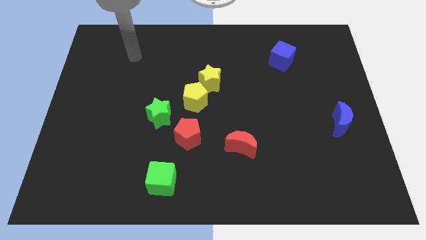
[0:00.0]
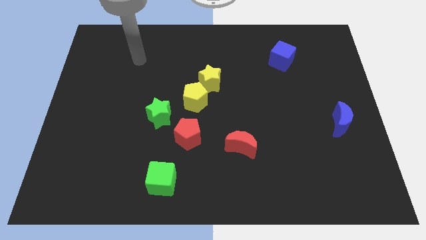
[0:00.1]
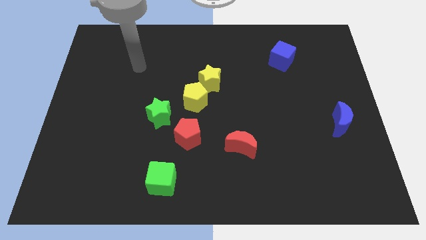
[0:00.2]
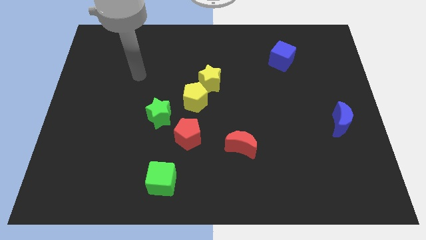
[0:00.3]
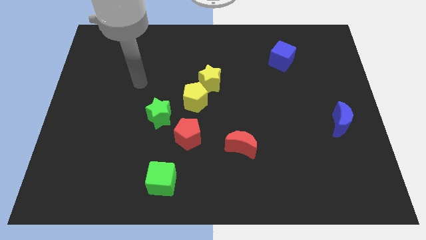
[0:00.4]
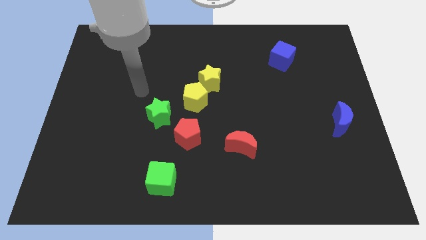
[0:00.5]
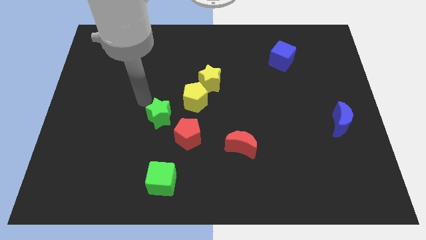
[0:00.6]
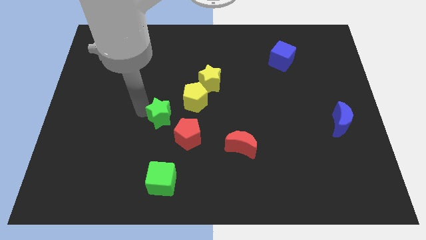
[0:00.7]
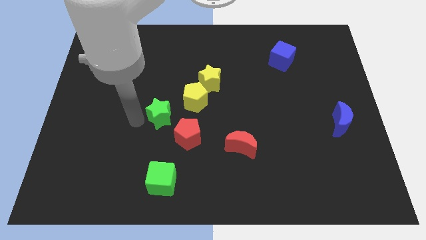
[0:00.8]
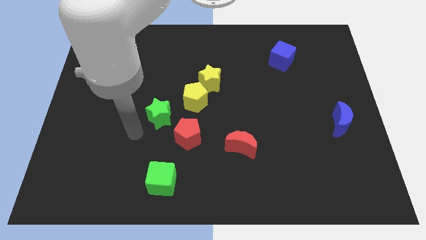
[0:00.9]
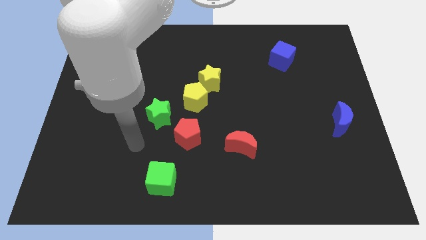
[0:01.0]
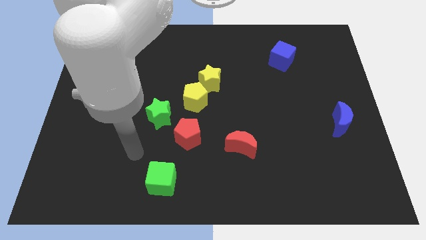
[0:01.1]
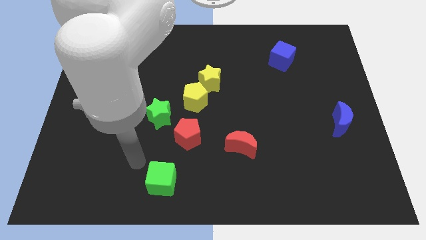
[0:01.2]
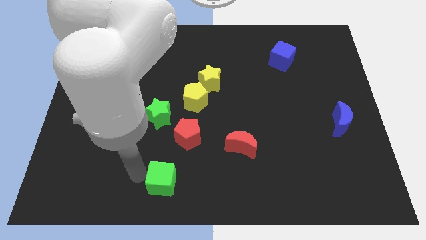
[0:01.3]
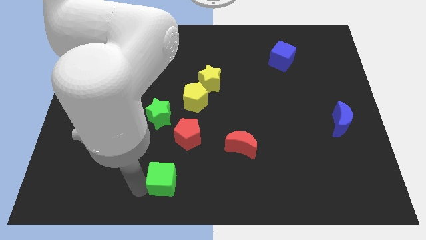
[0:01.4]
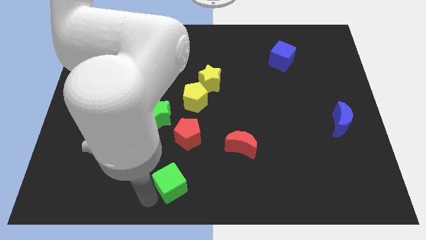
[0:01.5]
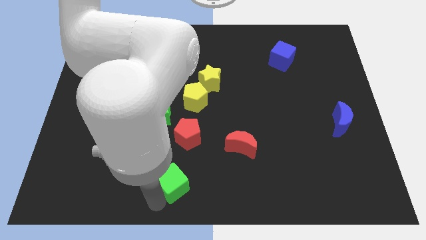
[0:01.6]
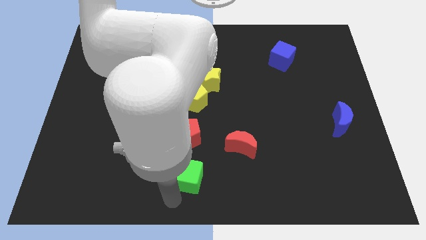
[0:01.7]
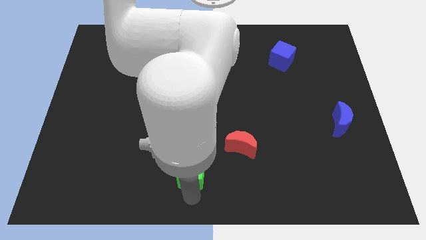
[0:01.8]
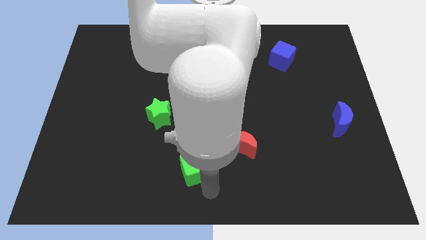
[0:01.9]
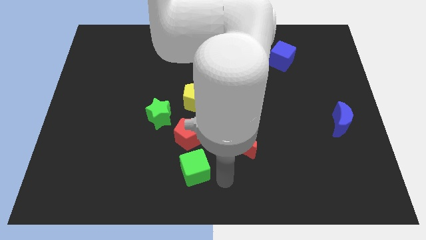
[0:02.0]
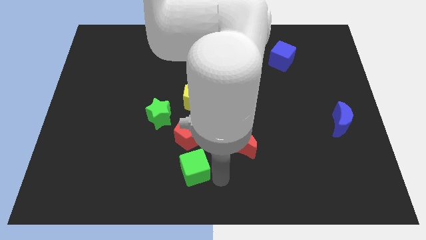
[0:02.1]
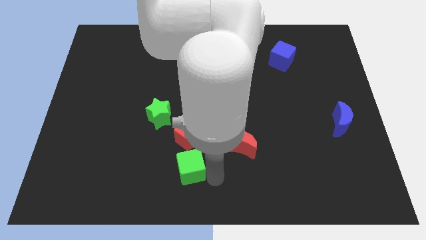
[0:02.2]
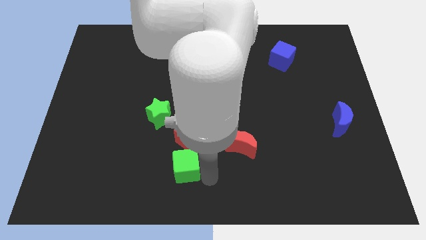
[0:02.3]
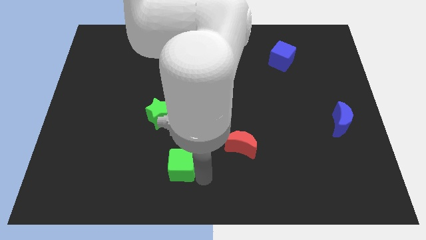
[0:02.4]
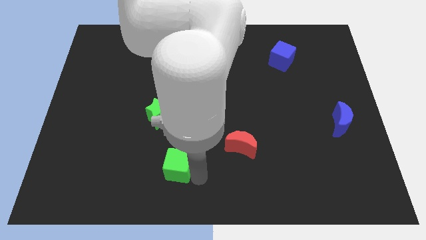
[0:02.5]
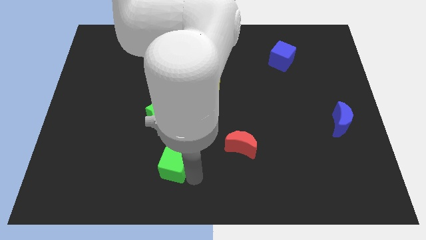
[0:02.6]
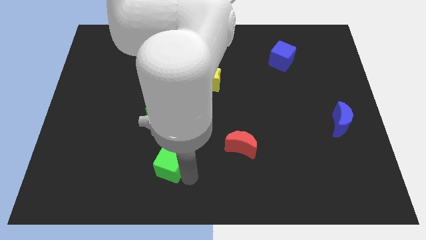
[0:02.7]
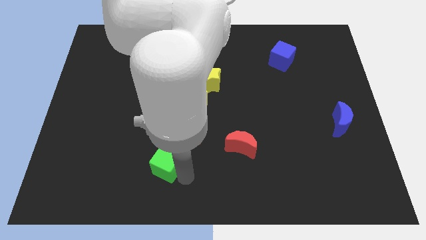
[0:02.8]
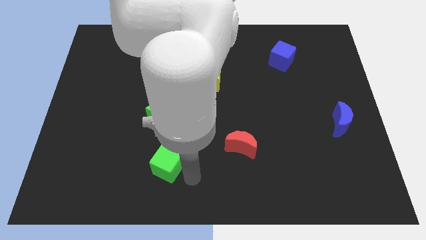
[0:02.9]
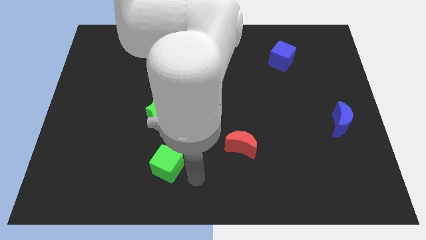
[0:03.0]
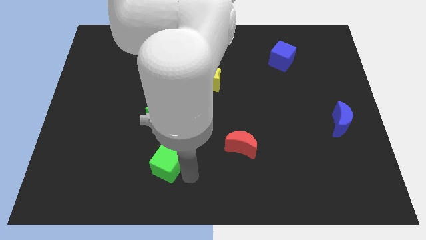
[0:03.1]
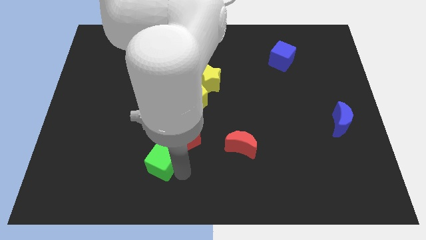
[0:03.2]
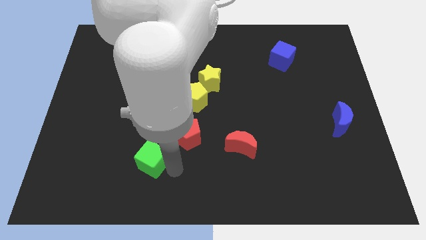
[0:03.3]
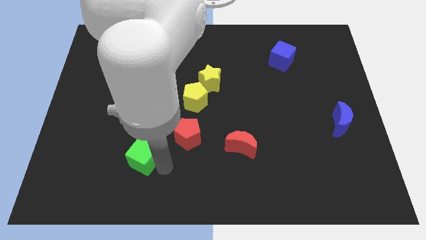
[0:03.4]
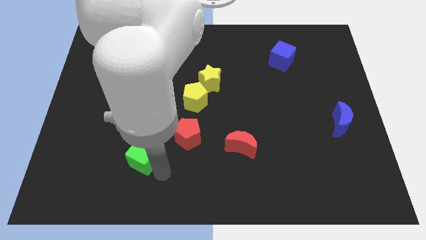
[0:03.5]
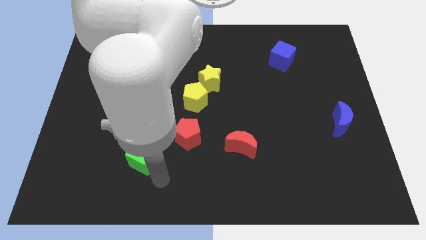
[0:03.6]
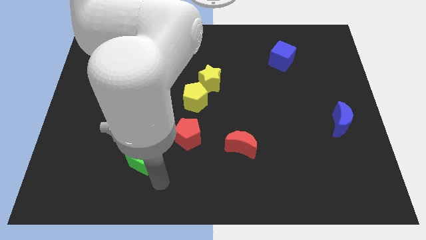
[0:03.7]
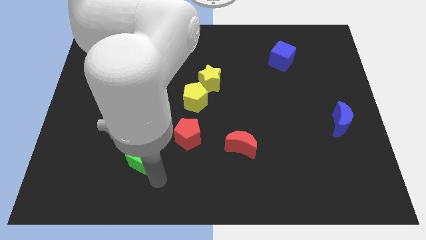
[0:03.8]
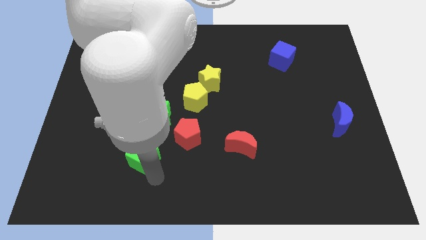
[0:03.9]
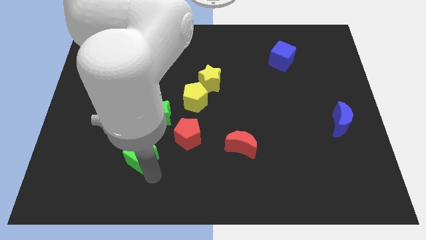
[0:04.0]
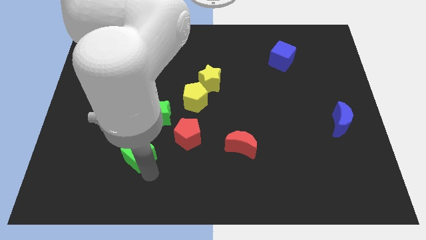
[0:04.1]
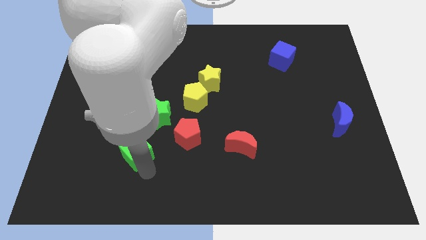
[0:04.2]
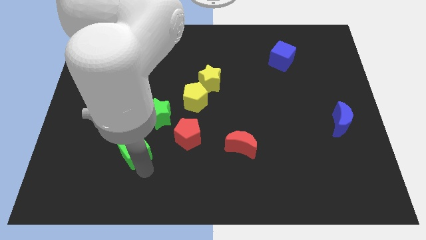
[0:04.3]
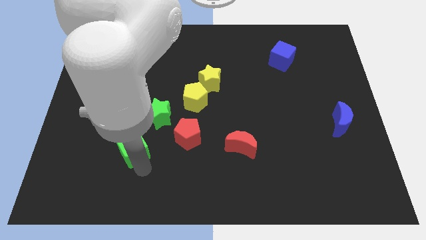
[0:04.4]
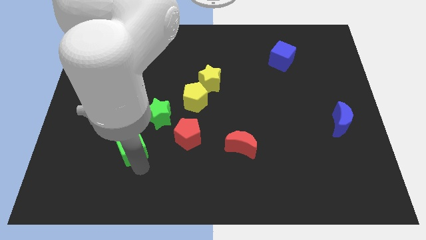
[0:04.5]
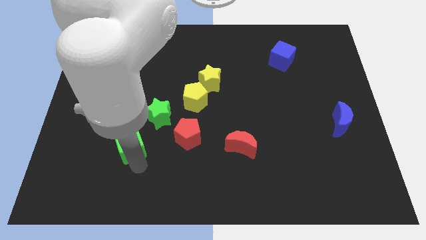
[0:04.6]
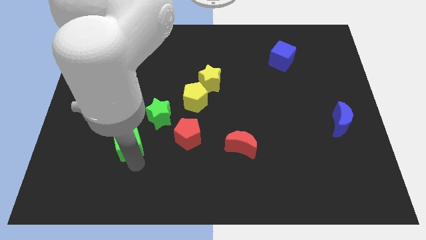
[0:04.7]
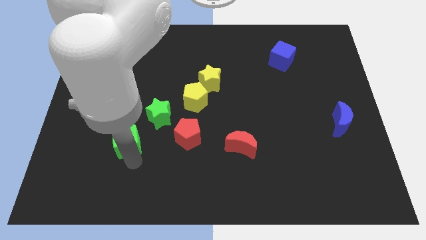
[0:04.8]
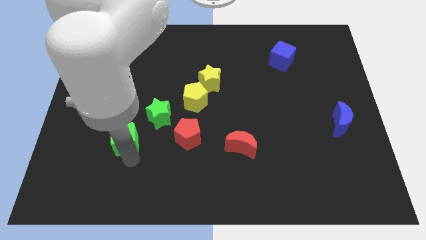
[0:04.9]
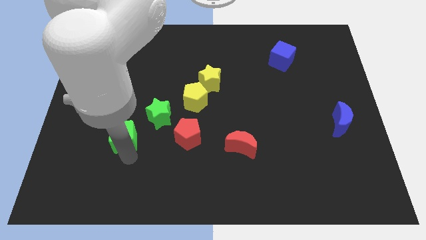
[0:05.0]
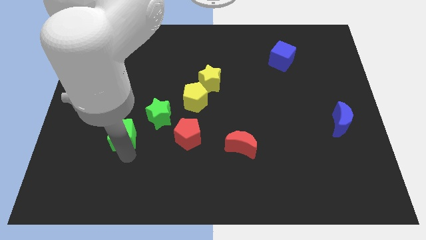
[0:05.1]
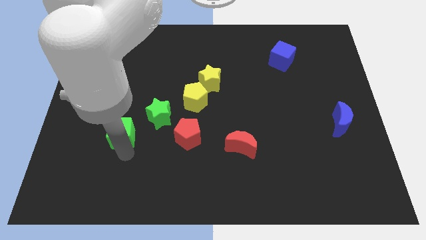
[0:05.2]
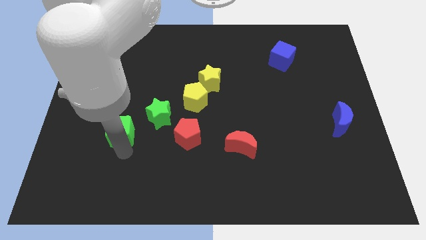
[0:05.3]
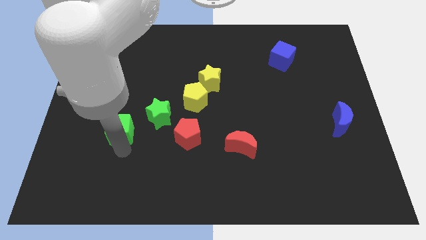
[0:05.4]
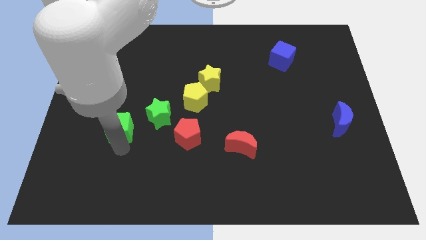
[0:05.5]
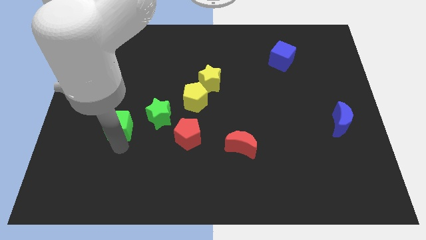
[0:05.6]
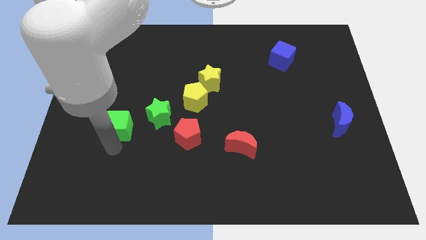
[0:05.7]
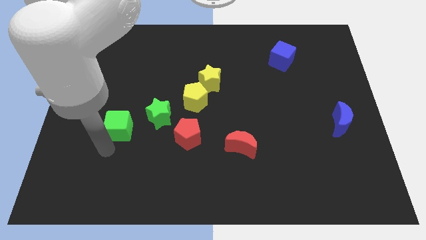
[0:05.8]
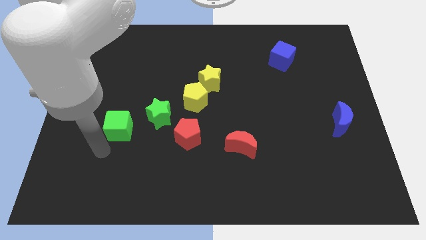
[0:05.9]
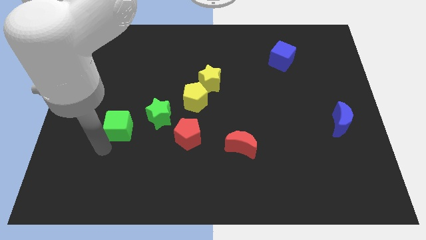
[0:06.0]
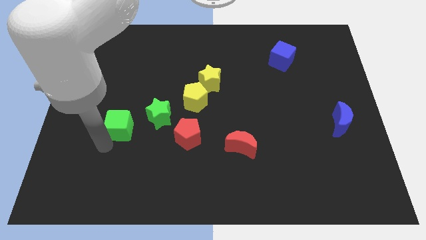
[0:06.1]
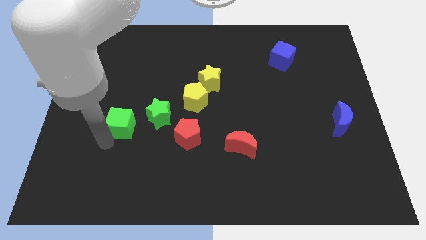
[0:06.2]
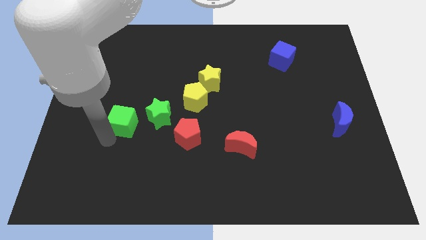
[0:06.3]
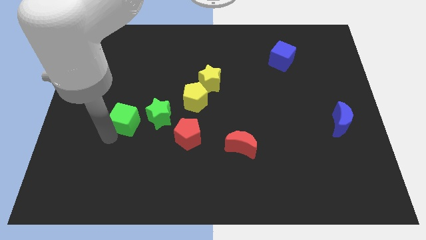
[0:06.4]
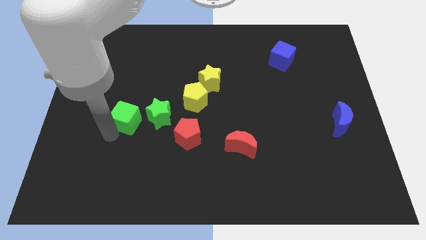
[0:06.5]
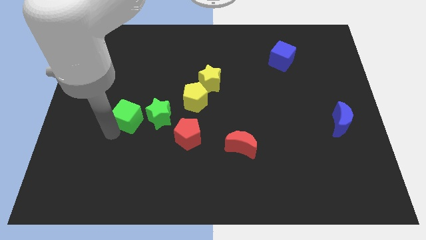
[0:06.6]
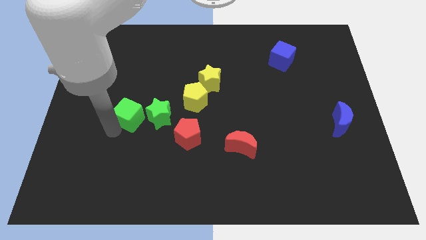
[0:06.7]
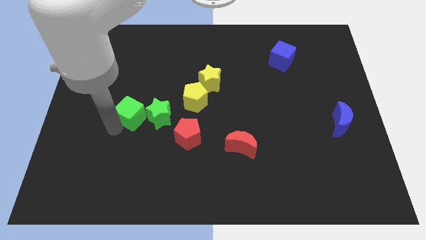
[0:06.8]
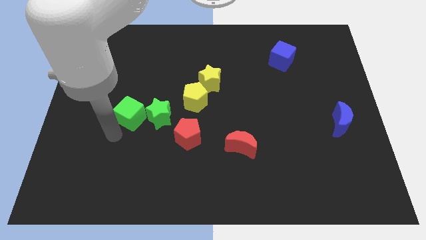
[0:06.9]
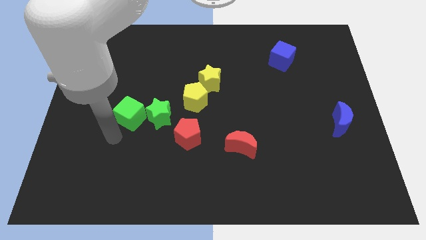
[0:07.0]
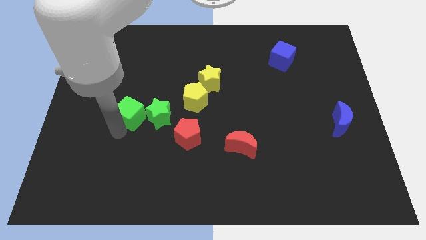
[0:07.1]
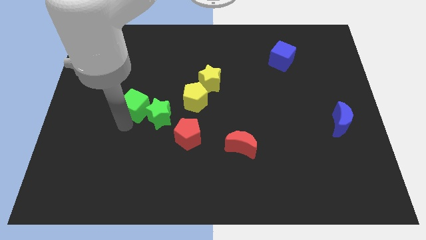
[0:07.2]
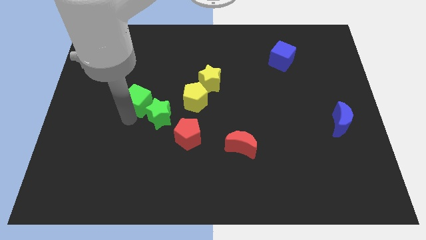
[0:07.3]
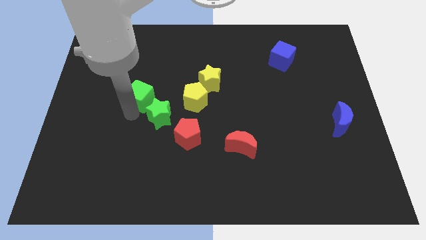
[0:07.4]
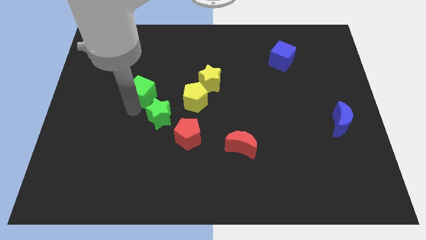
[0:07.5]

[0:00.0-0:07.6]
move the green cube up

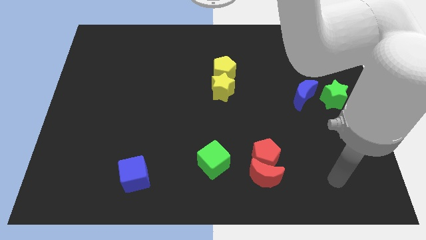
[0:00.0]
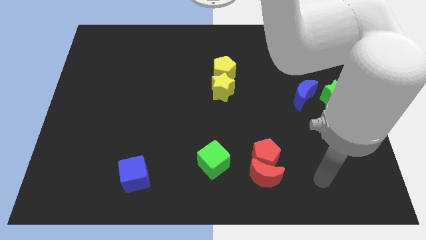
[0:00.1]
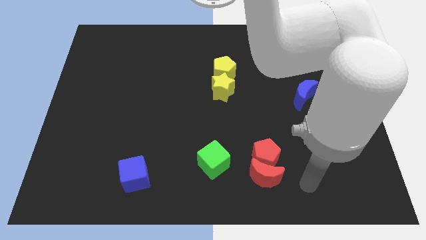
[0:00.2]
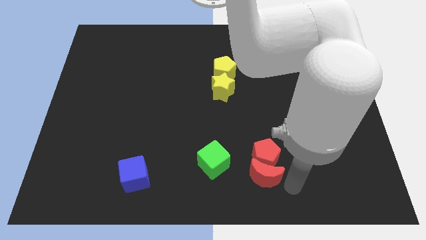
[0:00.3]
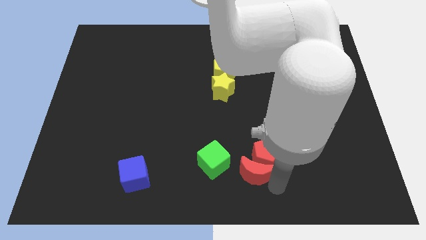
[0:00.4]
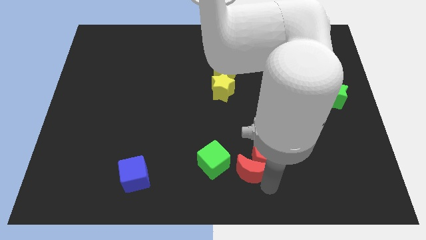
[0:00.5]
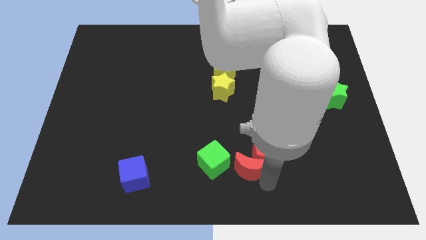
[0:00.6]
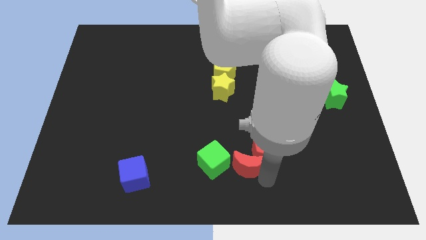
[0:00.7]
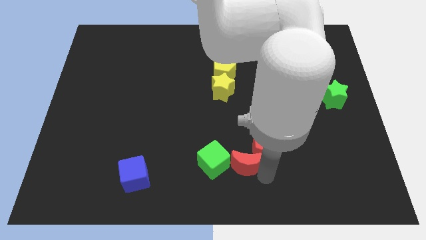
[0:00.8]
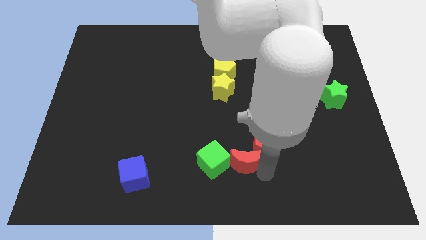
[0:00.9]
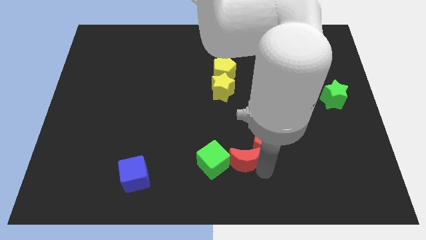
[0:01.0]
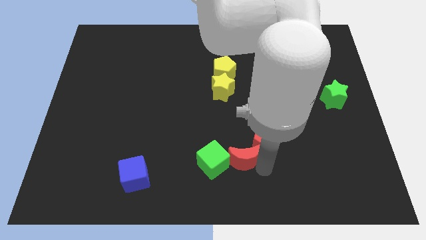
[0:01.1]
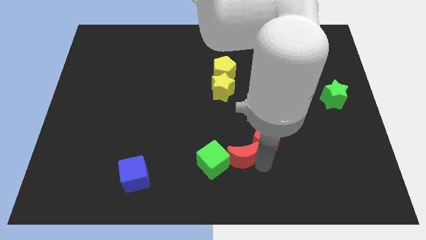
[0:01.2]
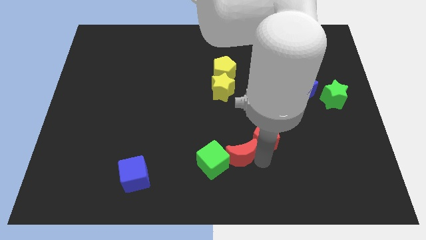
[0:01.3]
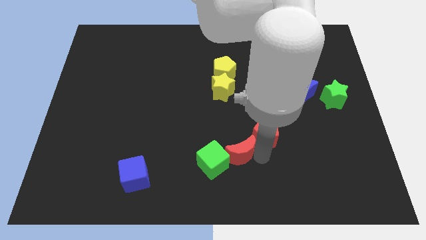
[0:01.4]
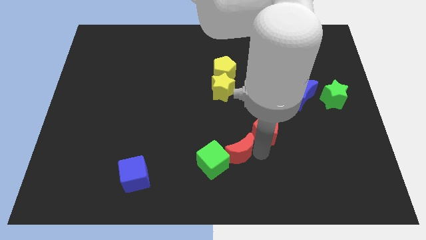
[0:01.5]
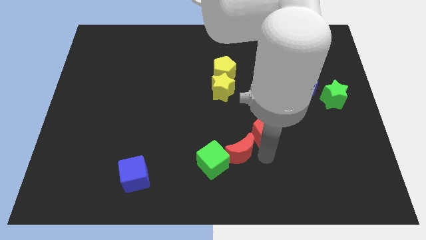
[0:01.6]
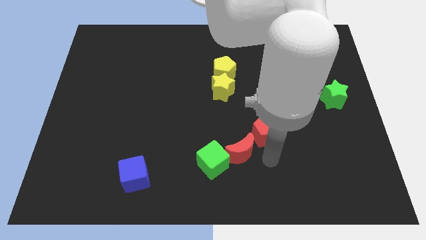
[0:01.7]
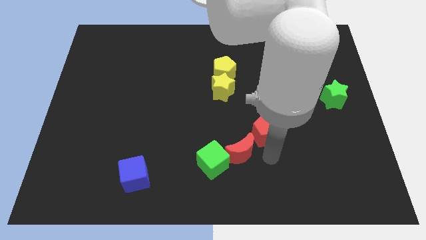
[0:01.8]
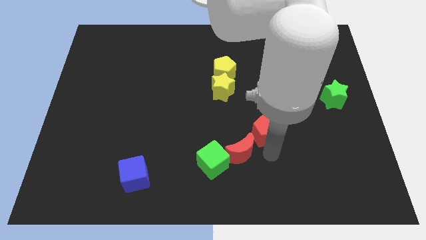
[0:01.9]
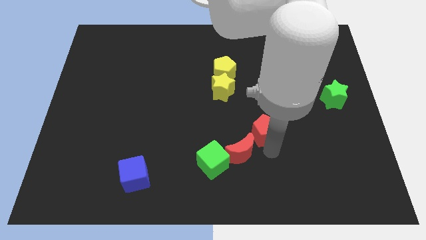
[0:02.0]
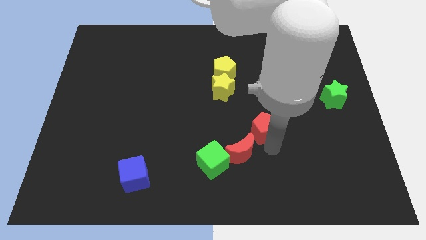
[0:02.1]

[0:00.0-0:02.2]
push the red pentagon up a little bit
